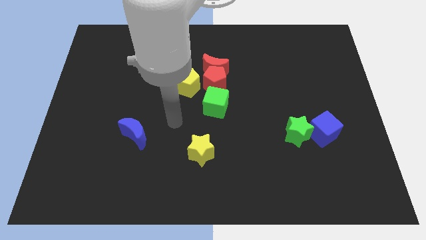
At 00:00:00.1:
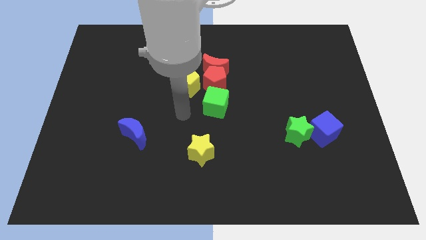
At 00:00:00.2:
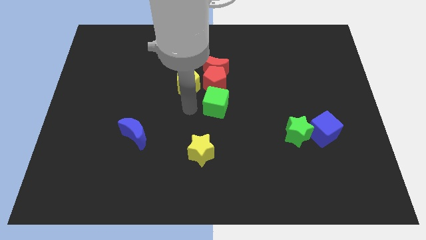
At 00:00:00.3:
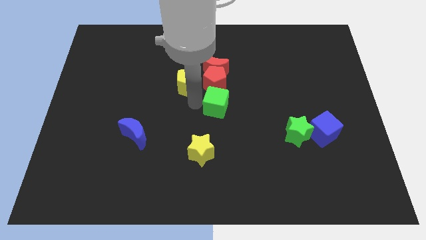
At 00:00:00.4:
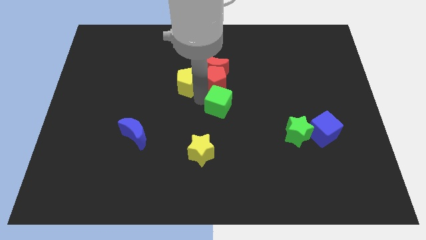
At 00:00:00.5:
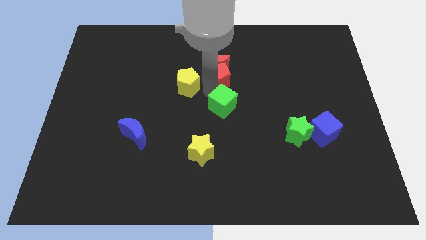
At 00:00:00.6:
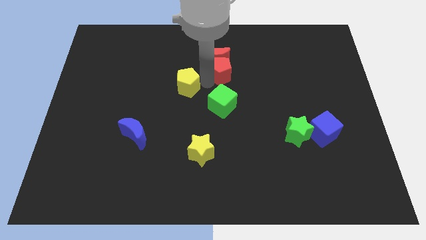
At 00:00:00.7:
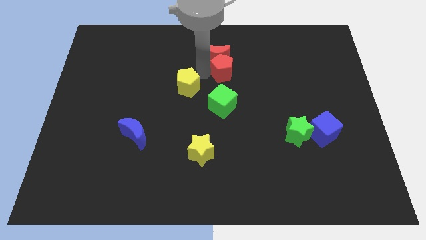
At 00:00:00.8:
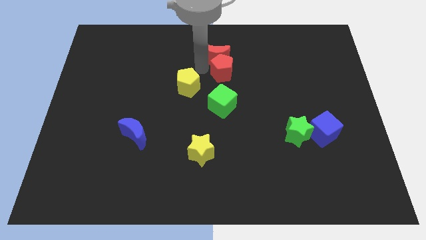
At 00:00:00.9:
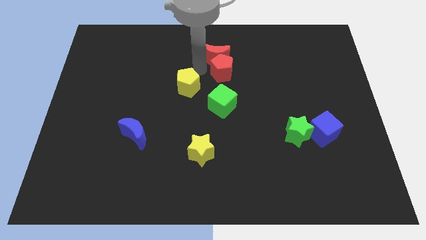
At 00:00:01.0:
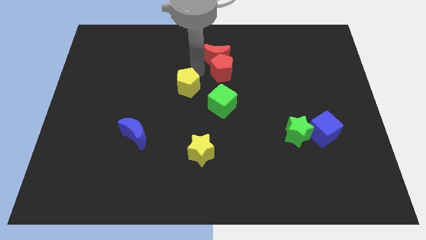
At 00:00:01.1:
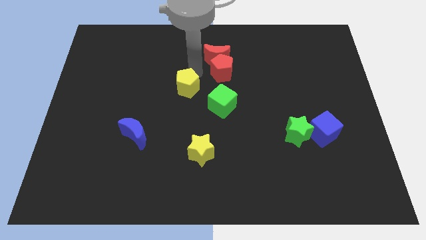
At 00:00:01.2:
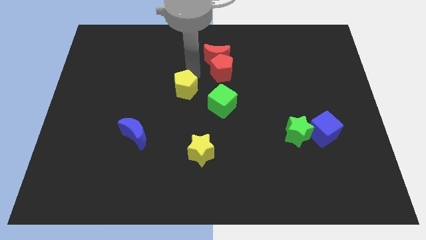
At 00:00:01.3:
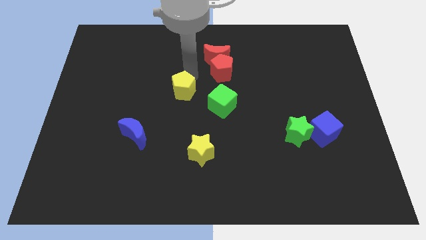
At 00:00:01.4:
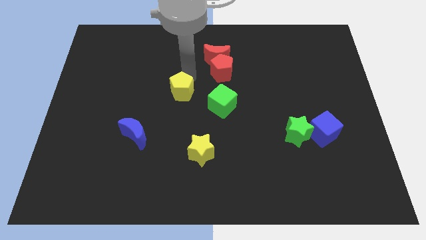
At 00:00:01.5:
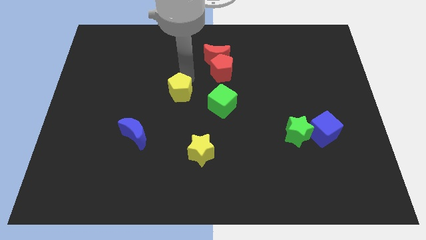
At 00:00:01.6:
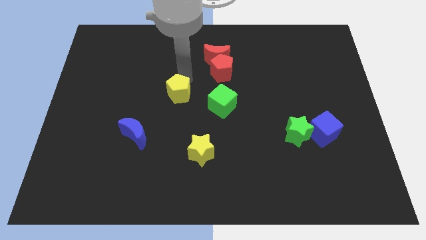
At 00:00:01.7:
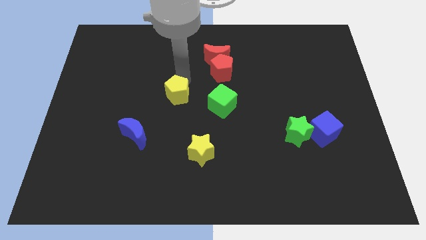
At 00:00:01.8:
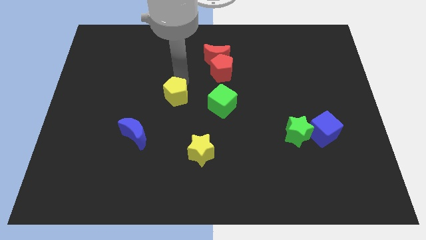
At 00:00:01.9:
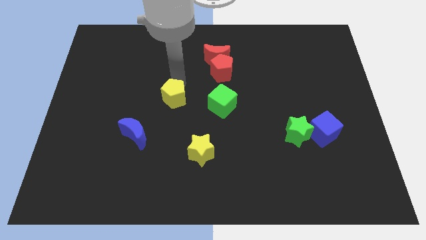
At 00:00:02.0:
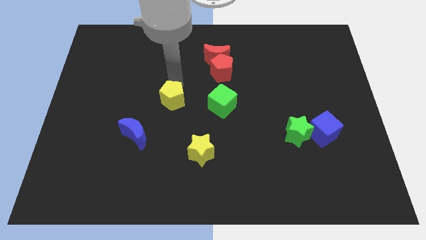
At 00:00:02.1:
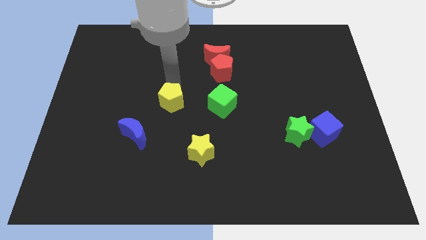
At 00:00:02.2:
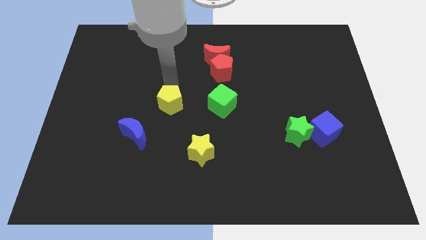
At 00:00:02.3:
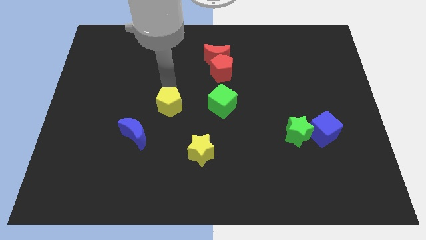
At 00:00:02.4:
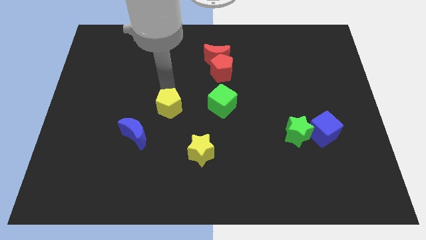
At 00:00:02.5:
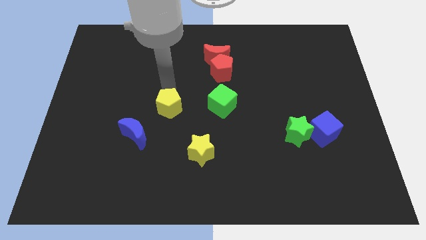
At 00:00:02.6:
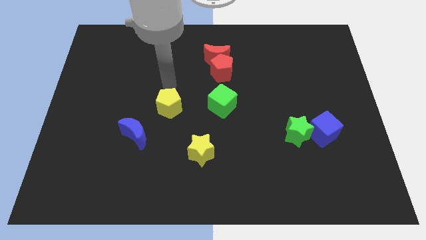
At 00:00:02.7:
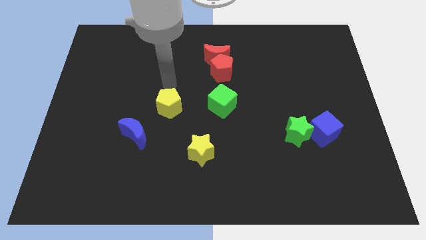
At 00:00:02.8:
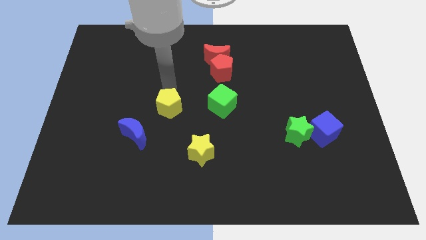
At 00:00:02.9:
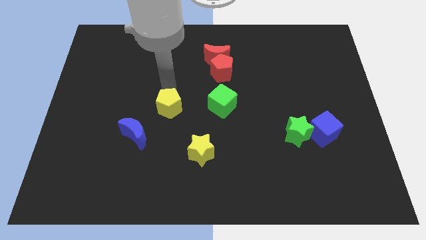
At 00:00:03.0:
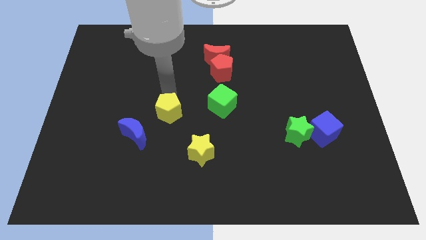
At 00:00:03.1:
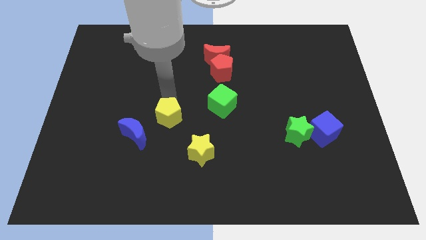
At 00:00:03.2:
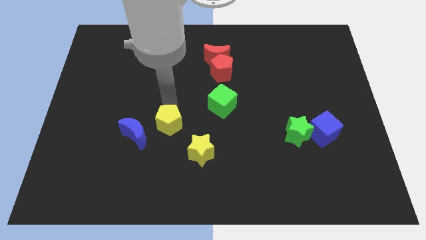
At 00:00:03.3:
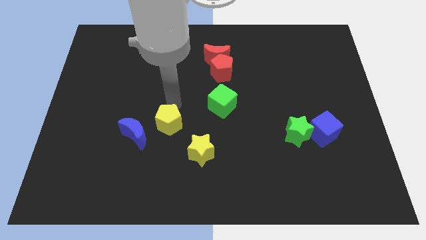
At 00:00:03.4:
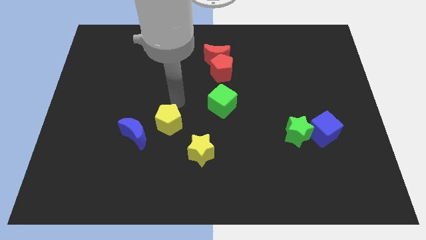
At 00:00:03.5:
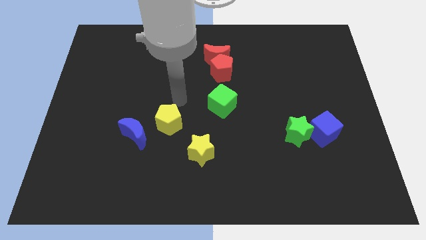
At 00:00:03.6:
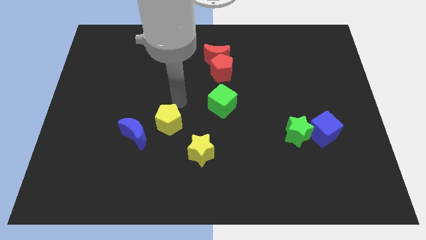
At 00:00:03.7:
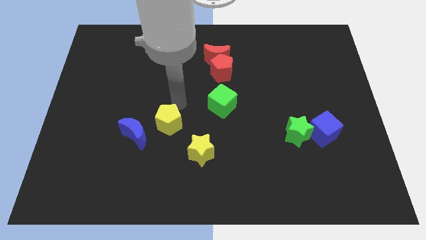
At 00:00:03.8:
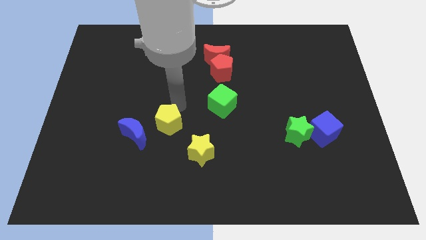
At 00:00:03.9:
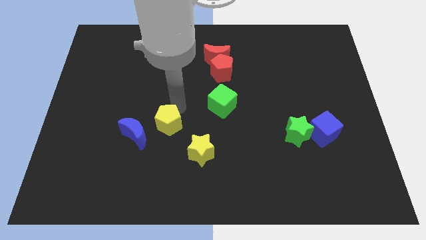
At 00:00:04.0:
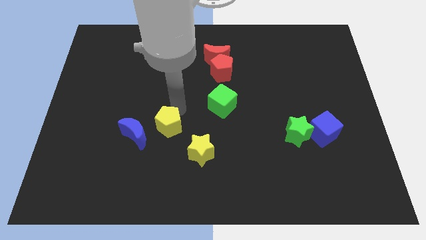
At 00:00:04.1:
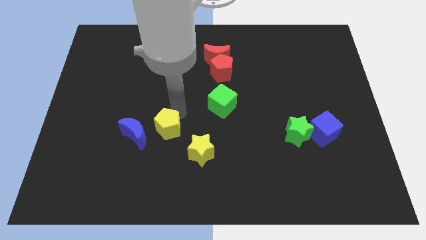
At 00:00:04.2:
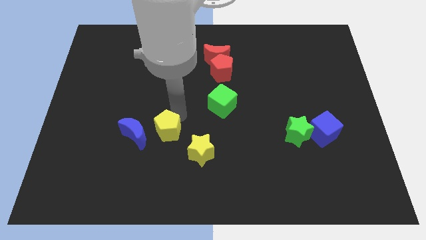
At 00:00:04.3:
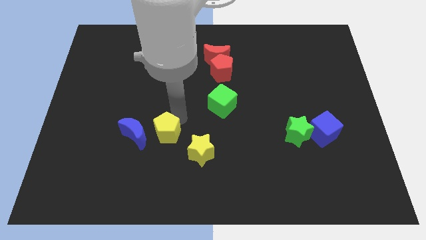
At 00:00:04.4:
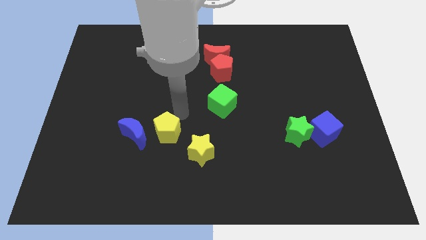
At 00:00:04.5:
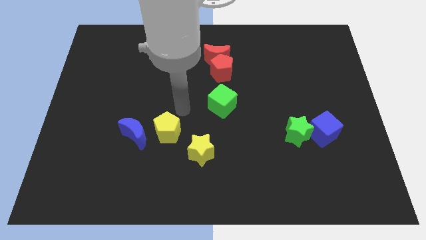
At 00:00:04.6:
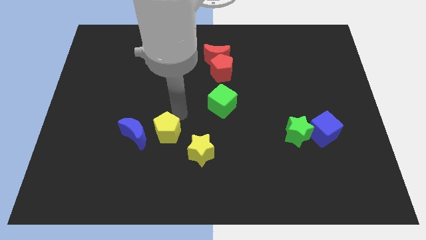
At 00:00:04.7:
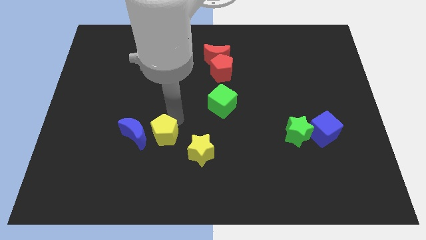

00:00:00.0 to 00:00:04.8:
slide the yellow pentagon to the left of the yellow star

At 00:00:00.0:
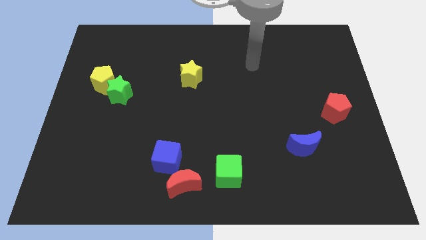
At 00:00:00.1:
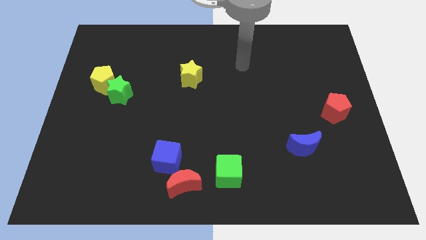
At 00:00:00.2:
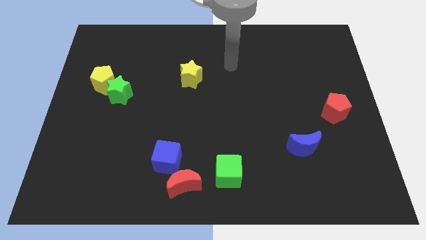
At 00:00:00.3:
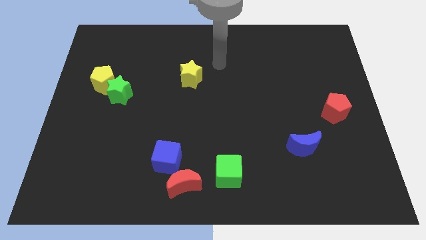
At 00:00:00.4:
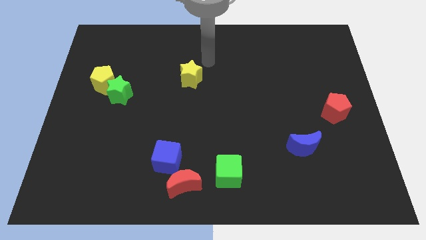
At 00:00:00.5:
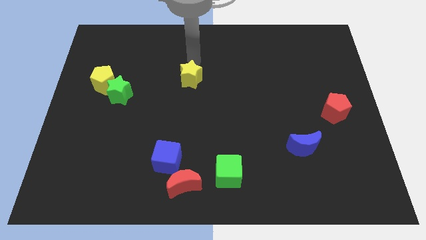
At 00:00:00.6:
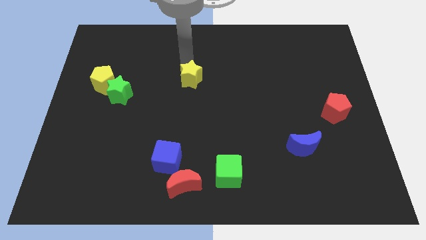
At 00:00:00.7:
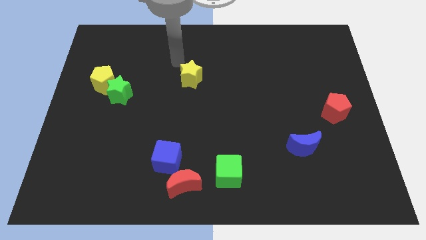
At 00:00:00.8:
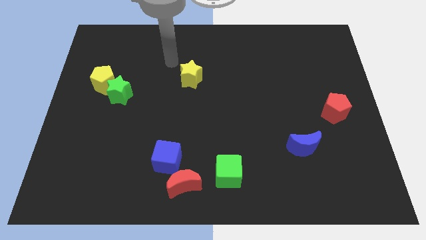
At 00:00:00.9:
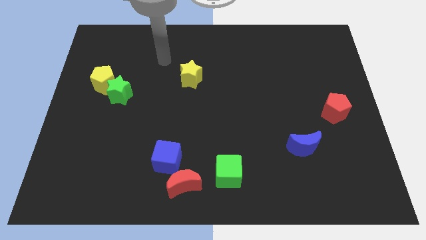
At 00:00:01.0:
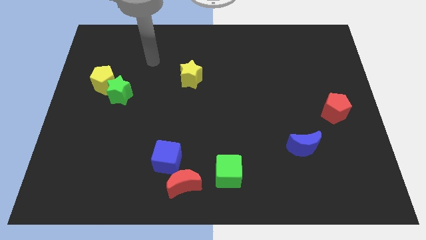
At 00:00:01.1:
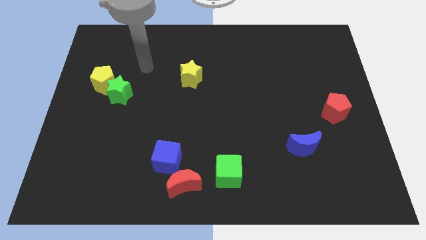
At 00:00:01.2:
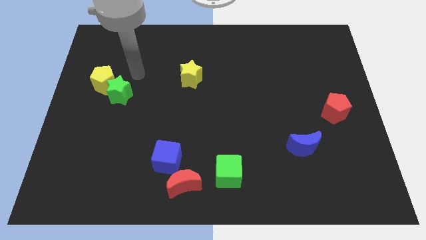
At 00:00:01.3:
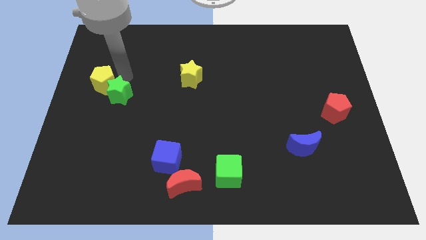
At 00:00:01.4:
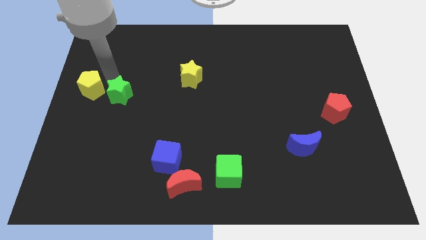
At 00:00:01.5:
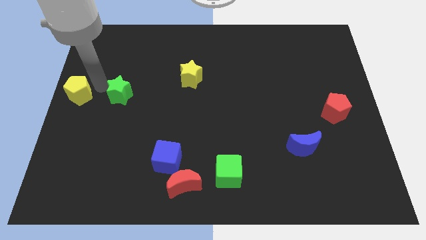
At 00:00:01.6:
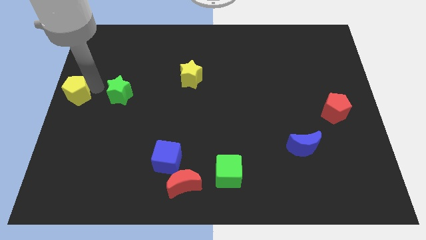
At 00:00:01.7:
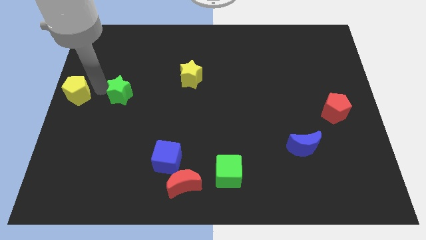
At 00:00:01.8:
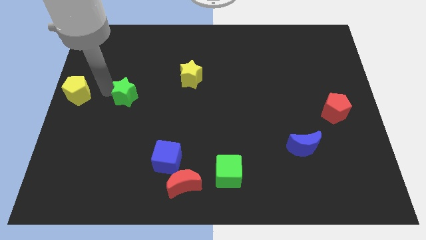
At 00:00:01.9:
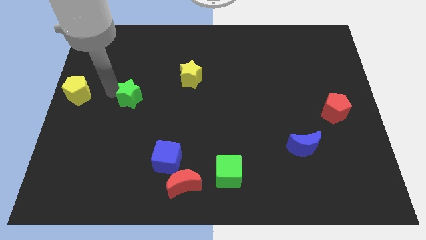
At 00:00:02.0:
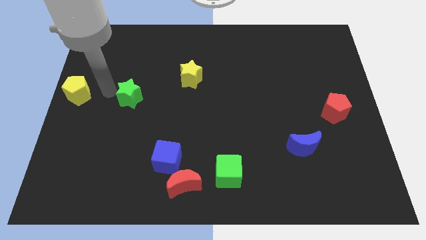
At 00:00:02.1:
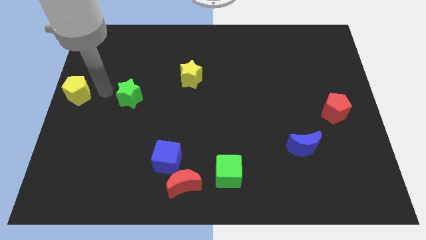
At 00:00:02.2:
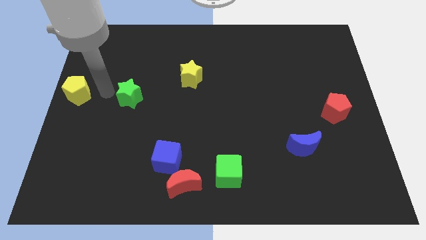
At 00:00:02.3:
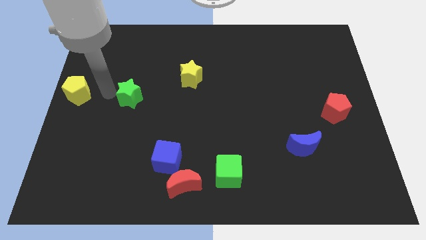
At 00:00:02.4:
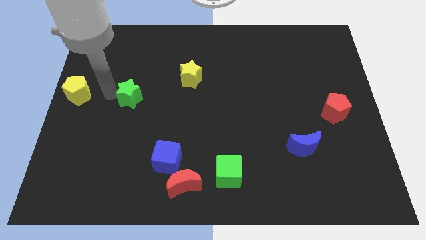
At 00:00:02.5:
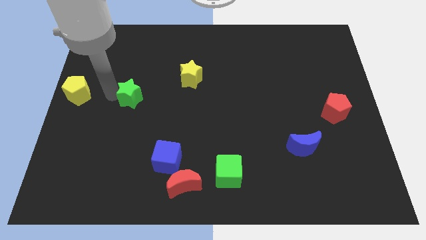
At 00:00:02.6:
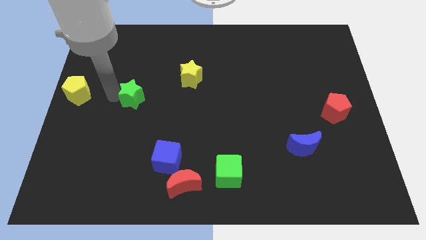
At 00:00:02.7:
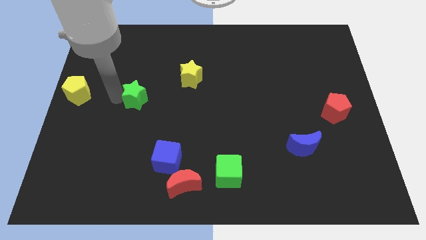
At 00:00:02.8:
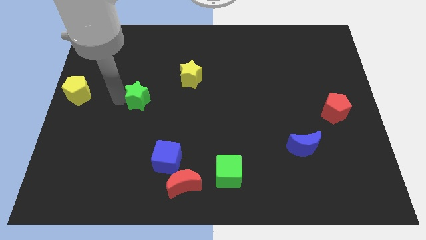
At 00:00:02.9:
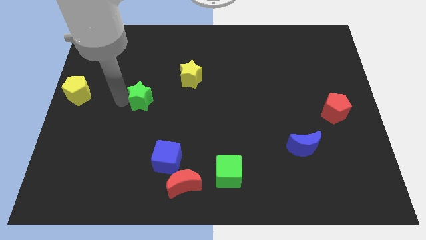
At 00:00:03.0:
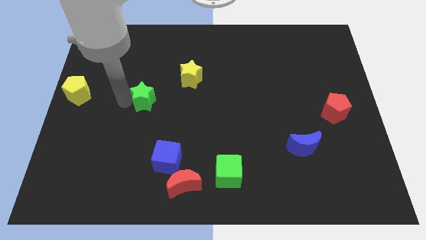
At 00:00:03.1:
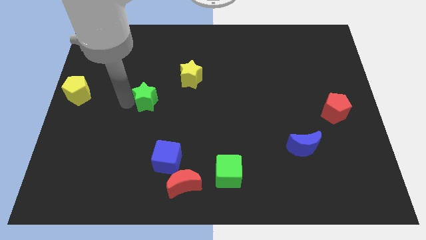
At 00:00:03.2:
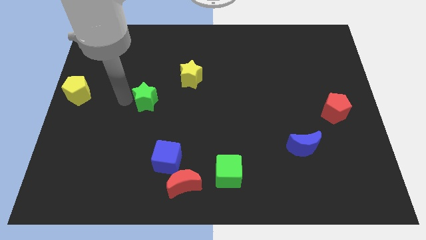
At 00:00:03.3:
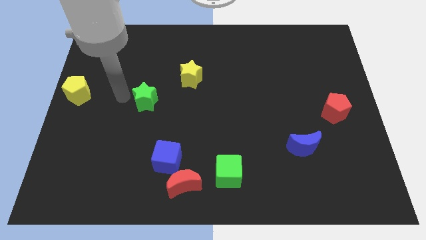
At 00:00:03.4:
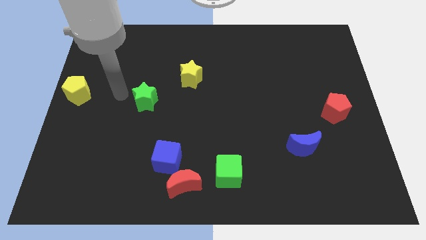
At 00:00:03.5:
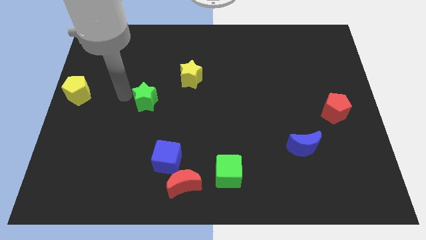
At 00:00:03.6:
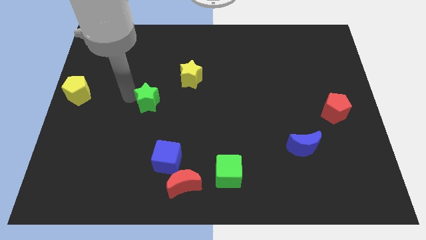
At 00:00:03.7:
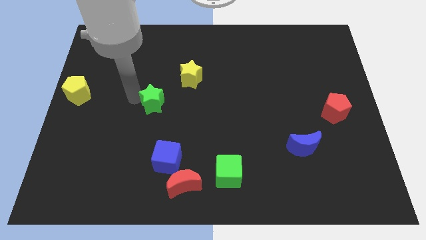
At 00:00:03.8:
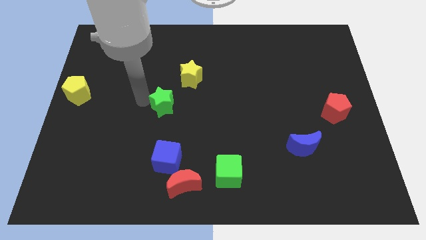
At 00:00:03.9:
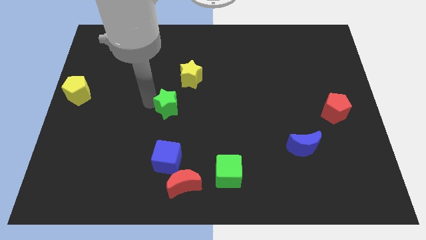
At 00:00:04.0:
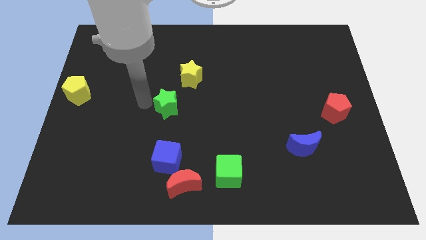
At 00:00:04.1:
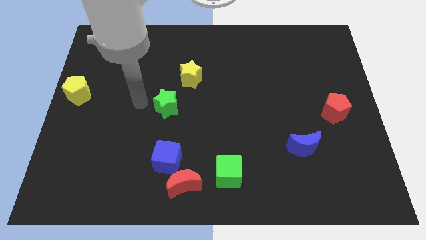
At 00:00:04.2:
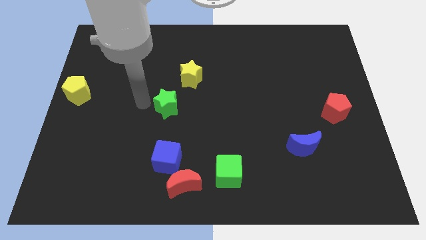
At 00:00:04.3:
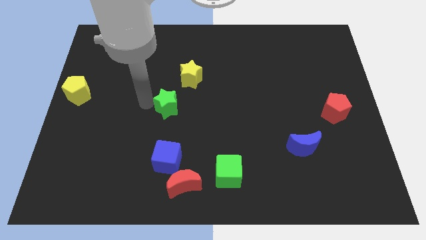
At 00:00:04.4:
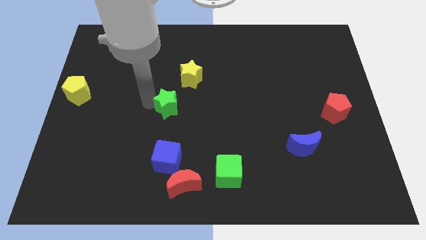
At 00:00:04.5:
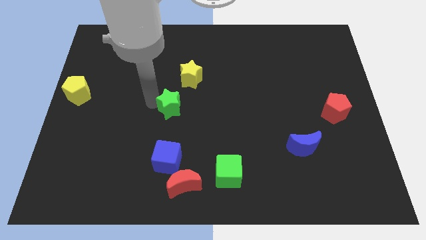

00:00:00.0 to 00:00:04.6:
put the green star below the yellow star
